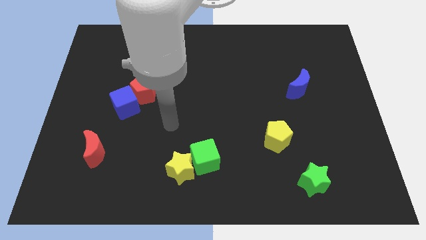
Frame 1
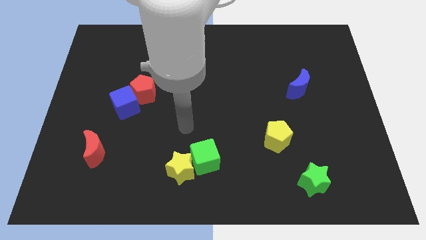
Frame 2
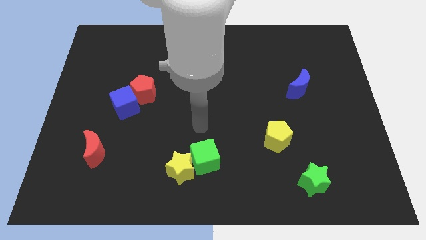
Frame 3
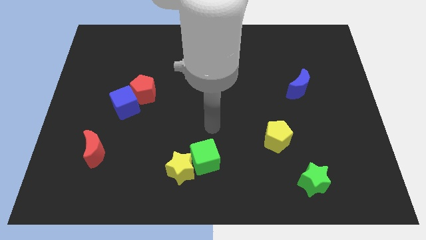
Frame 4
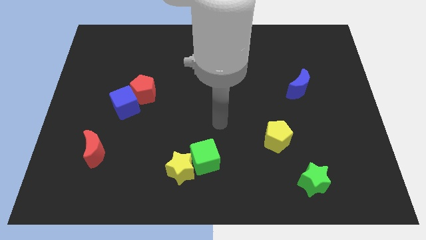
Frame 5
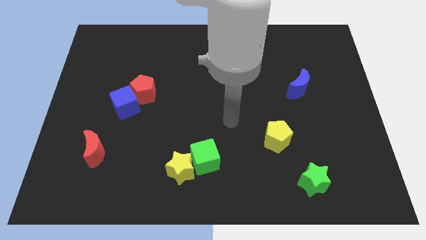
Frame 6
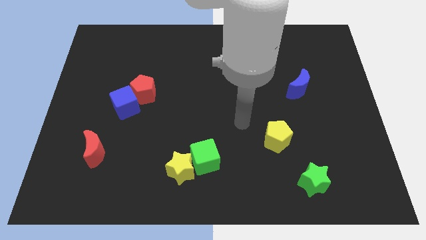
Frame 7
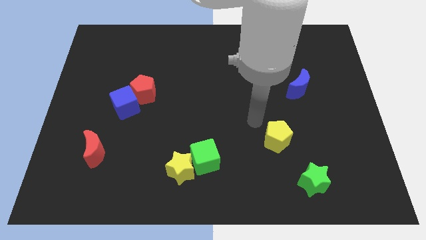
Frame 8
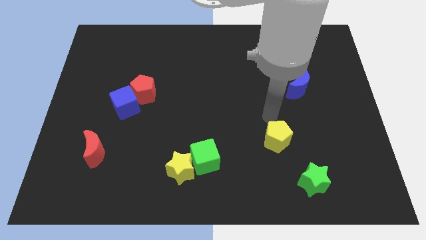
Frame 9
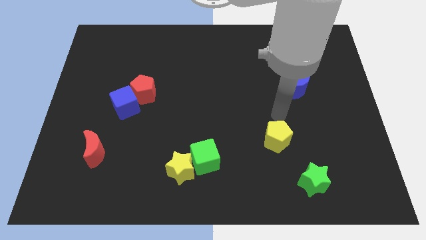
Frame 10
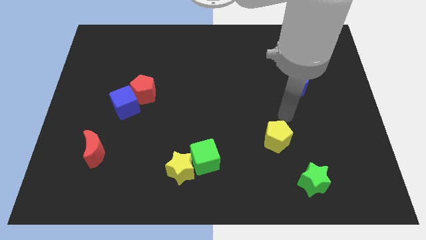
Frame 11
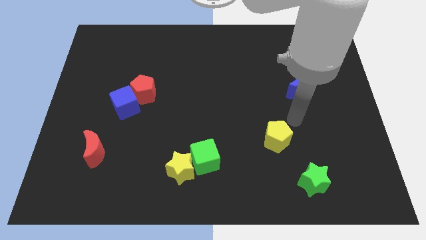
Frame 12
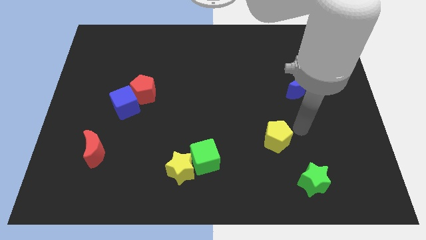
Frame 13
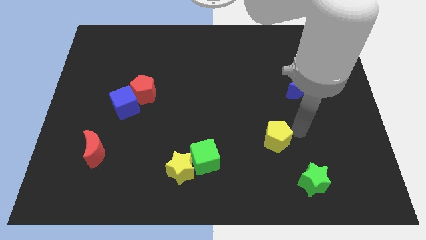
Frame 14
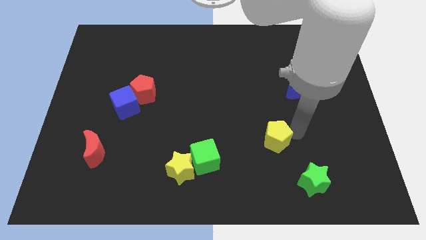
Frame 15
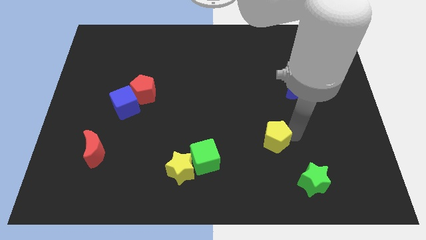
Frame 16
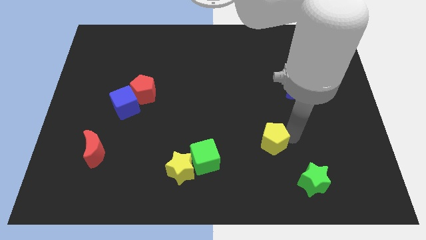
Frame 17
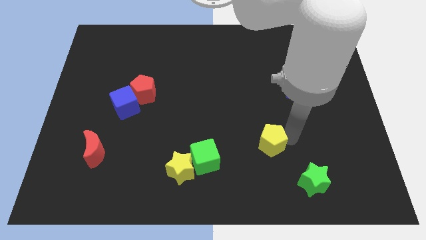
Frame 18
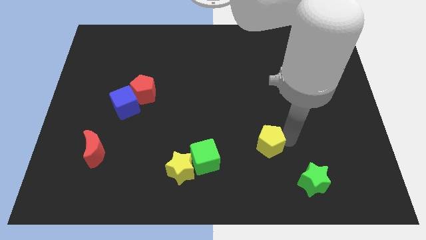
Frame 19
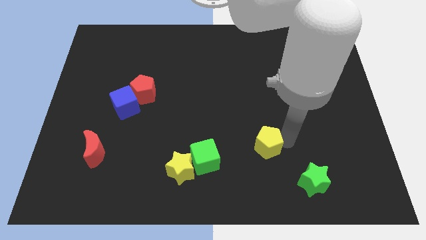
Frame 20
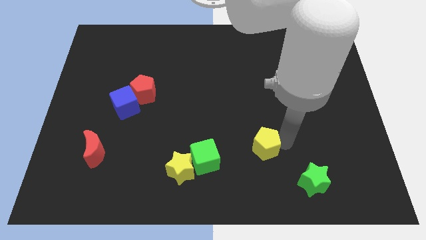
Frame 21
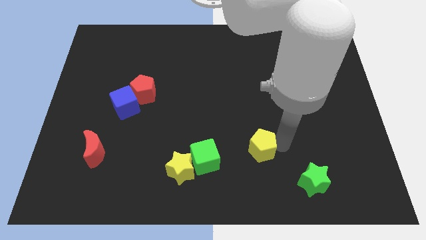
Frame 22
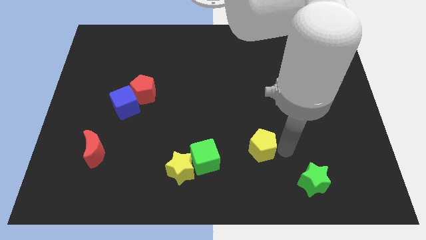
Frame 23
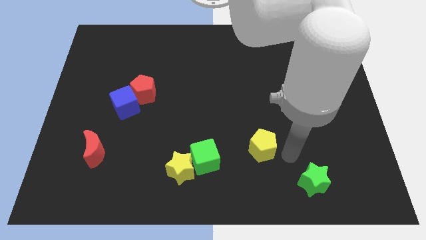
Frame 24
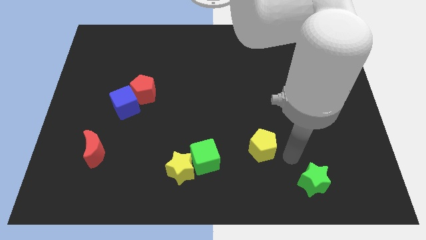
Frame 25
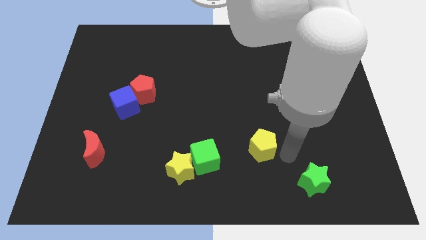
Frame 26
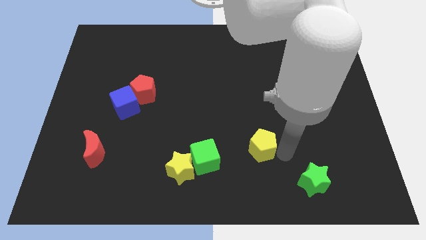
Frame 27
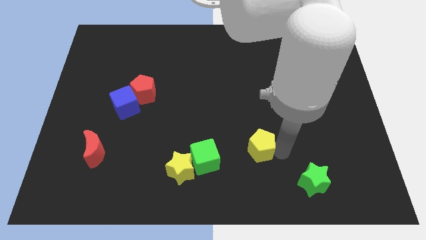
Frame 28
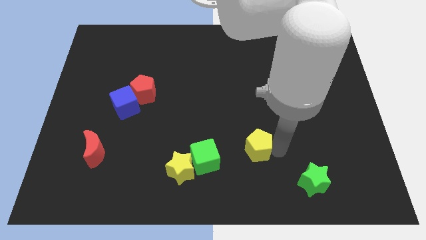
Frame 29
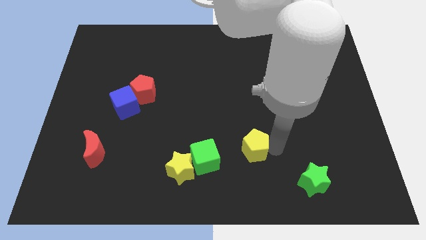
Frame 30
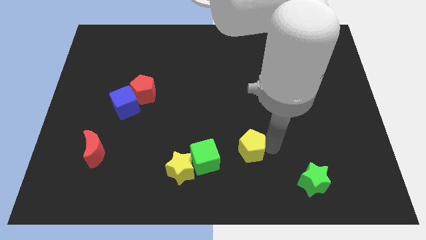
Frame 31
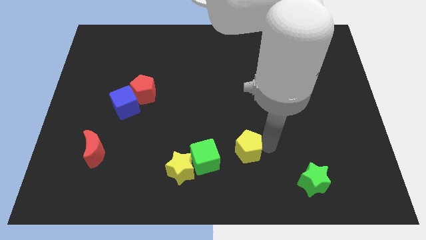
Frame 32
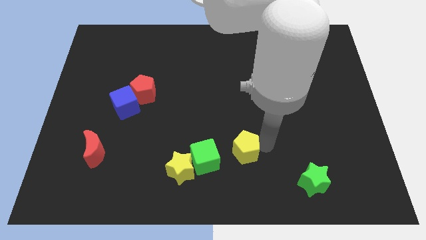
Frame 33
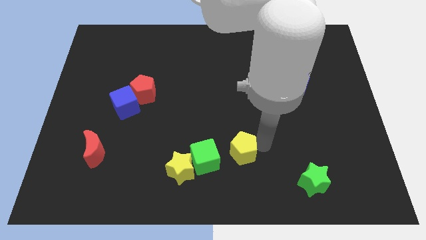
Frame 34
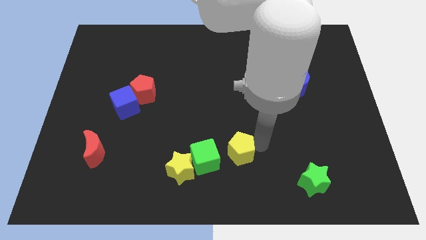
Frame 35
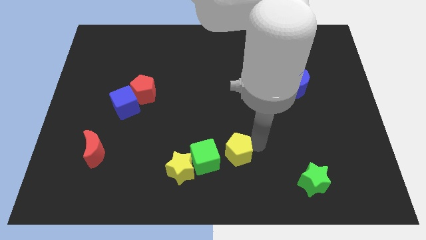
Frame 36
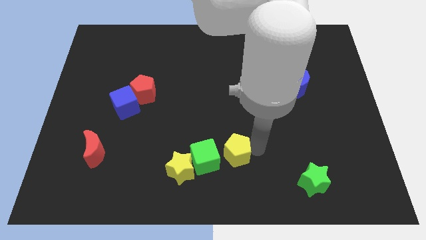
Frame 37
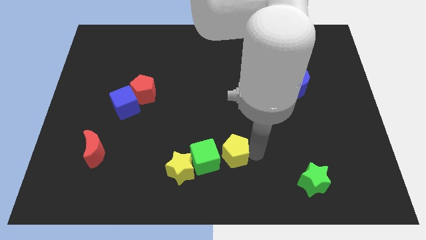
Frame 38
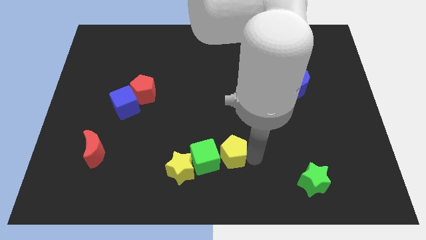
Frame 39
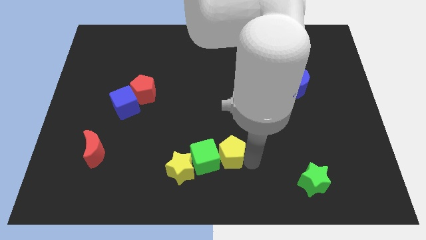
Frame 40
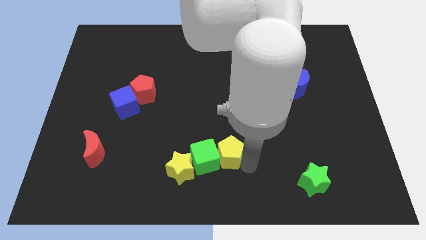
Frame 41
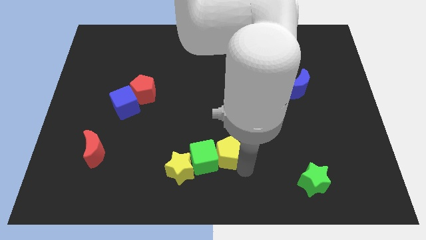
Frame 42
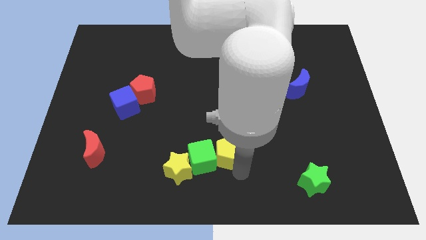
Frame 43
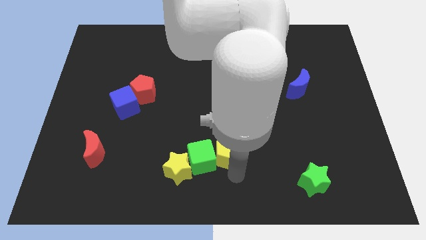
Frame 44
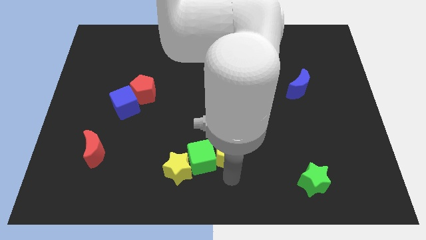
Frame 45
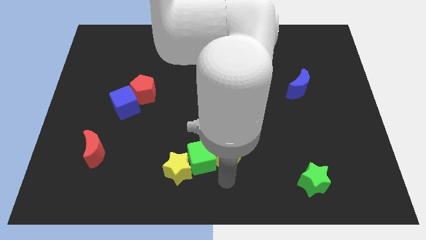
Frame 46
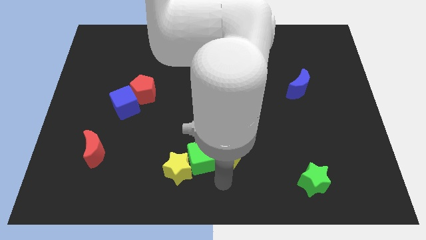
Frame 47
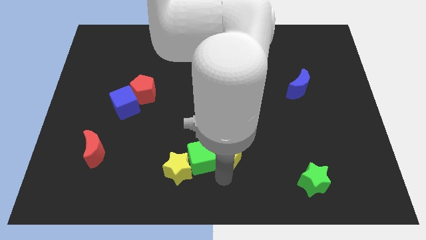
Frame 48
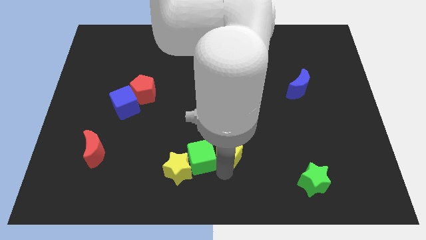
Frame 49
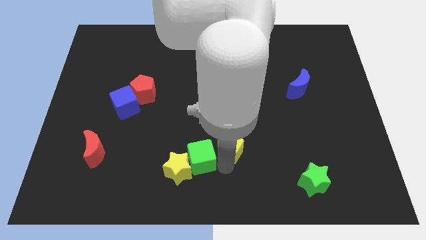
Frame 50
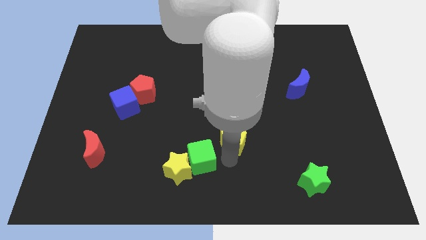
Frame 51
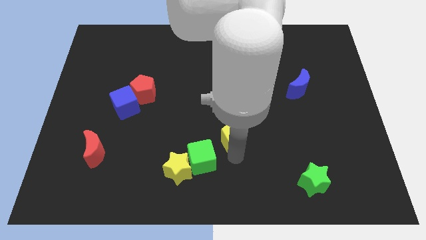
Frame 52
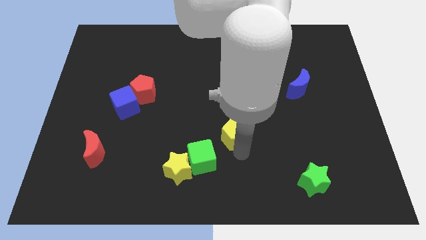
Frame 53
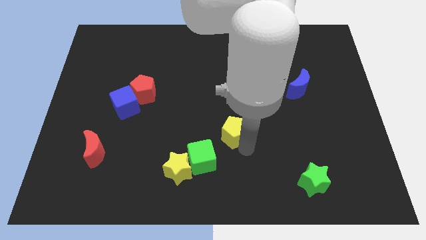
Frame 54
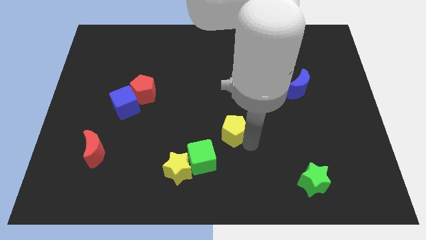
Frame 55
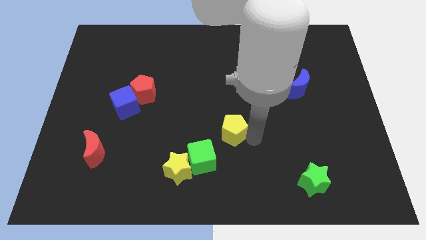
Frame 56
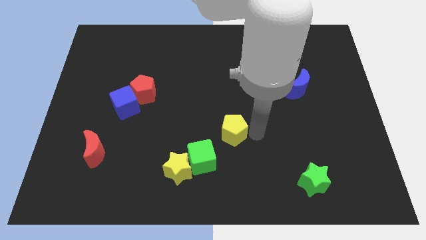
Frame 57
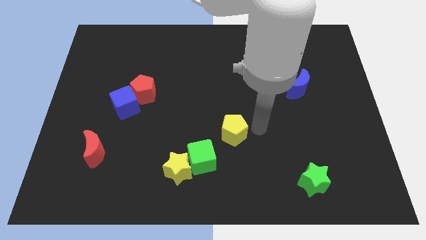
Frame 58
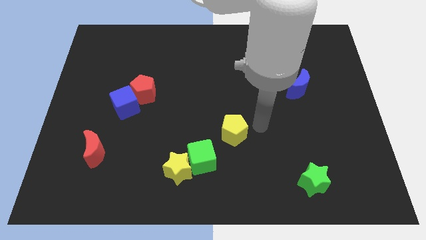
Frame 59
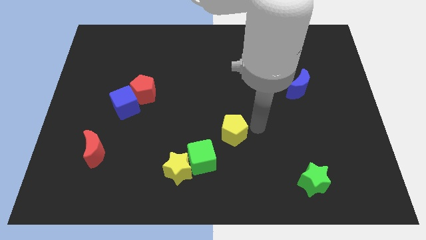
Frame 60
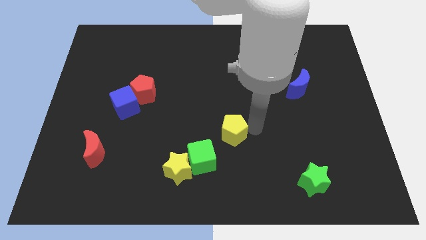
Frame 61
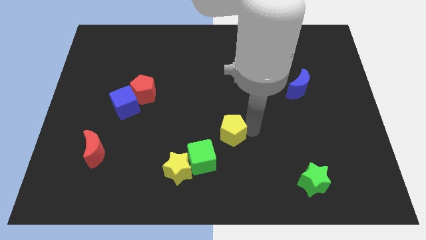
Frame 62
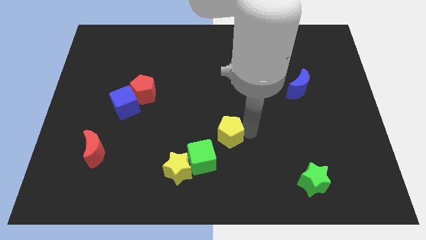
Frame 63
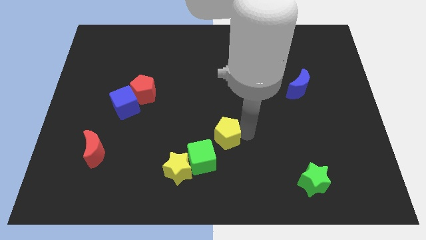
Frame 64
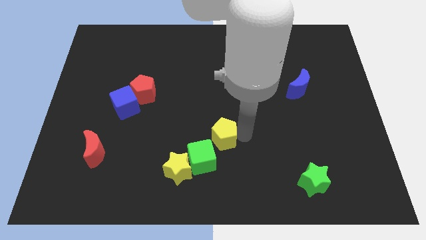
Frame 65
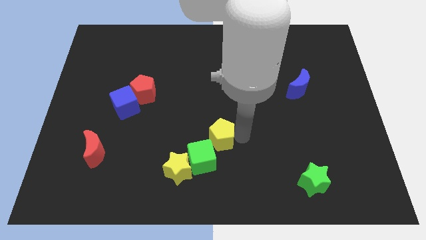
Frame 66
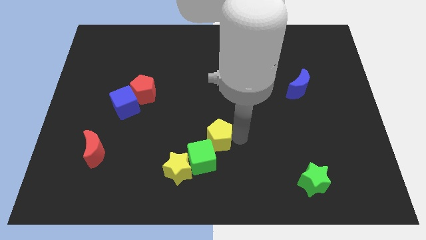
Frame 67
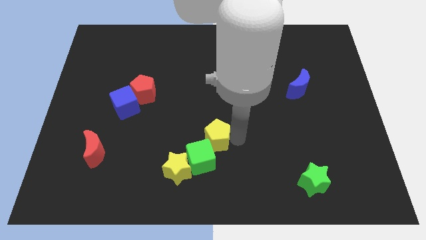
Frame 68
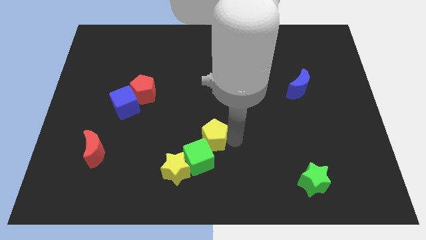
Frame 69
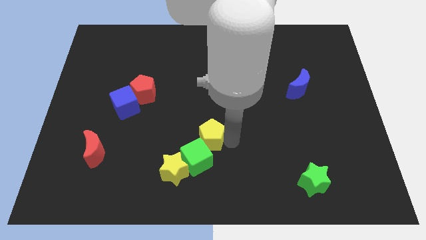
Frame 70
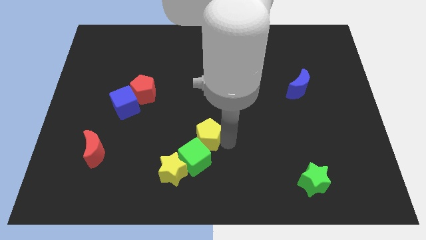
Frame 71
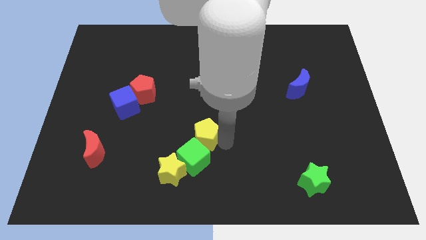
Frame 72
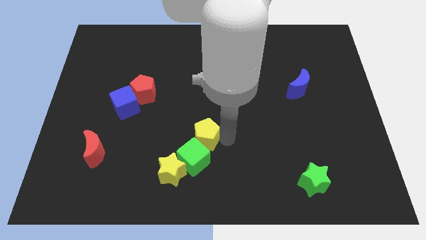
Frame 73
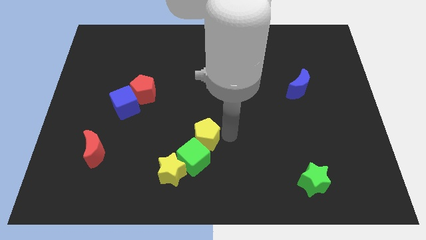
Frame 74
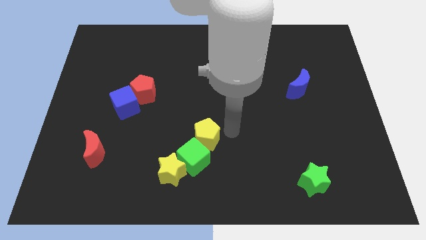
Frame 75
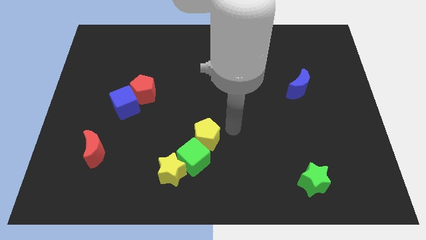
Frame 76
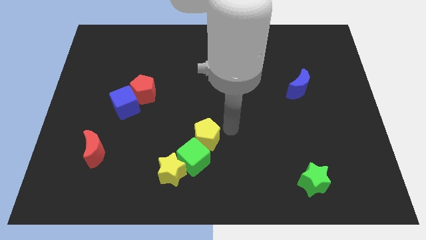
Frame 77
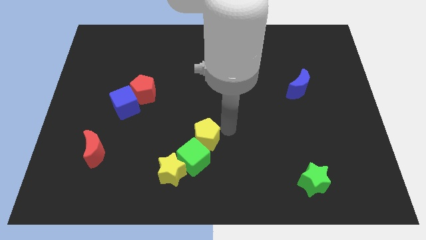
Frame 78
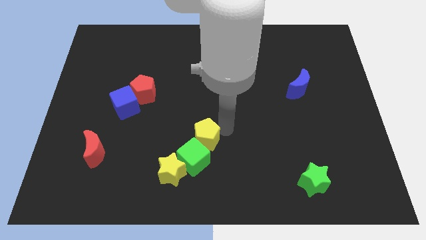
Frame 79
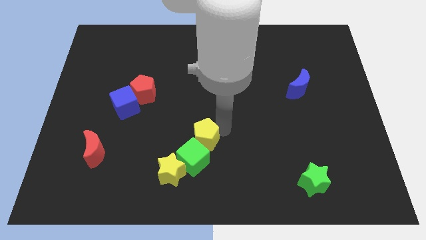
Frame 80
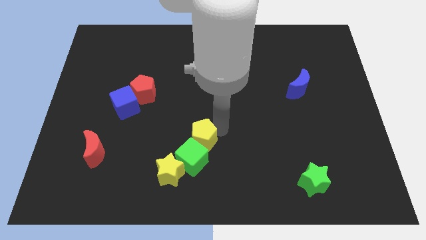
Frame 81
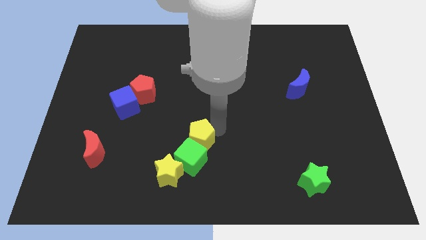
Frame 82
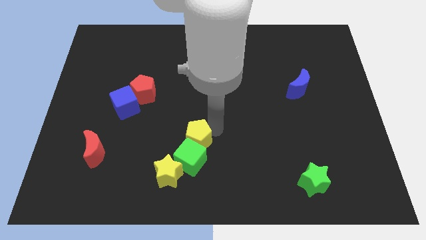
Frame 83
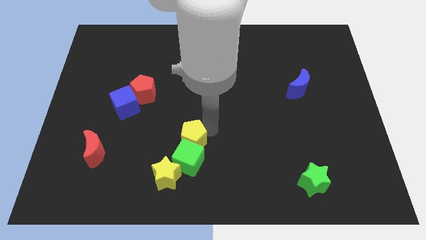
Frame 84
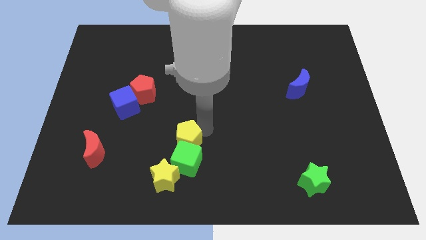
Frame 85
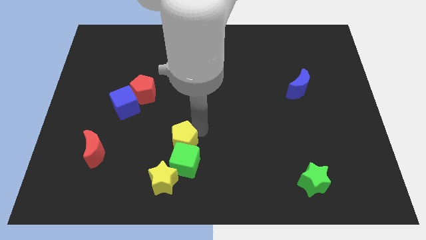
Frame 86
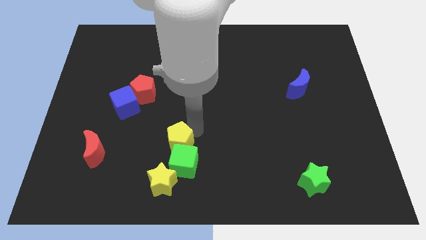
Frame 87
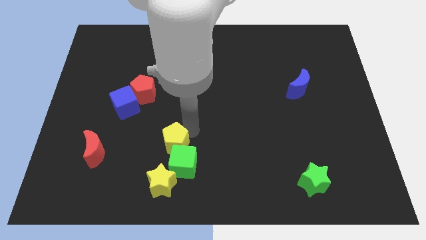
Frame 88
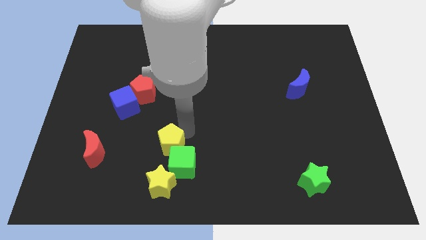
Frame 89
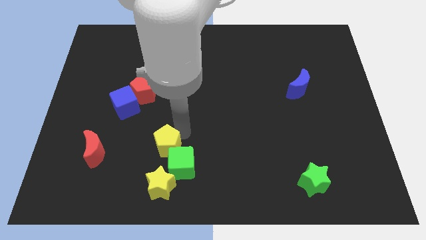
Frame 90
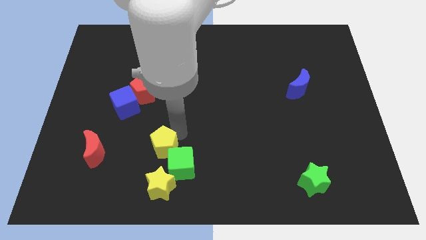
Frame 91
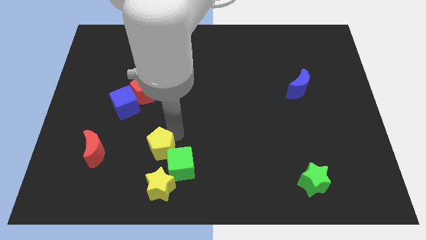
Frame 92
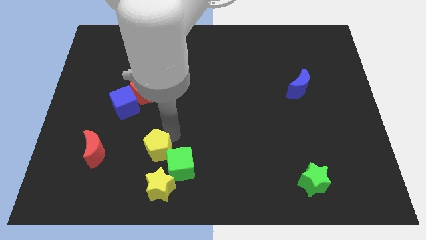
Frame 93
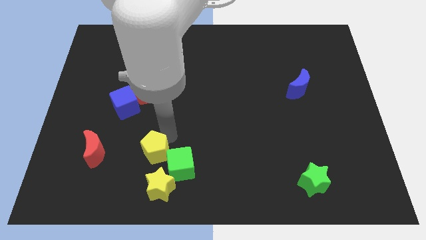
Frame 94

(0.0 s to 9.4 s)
put the yellow pentagon to the top left of the yellow star
